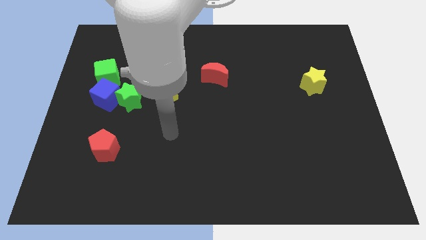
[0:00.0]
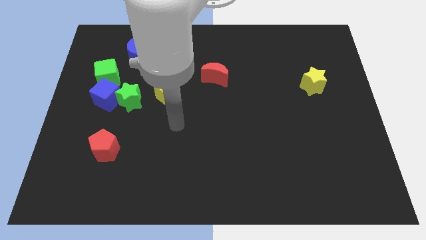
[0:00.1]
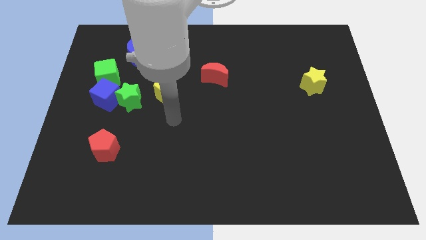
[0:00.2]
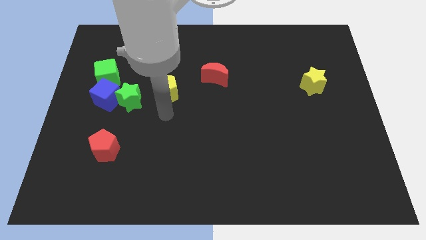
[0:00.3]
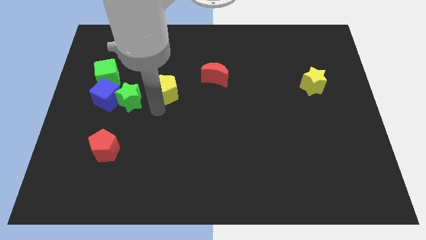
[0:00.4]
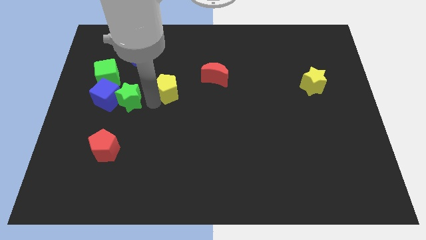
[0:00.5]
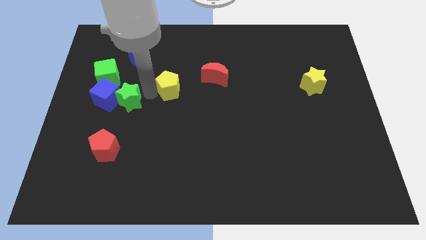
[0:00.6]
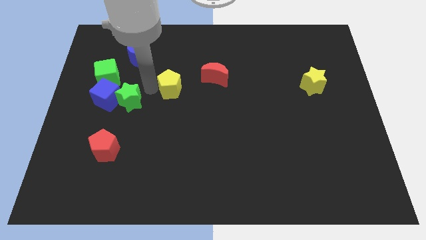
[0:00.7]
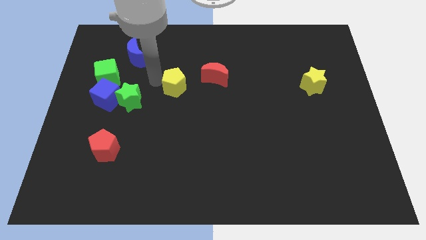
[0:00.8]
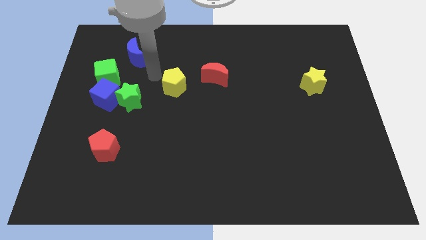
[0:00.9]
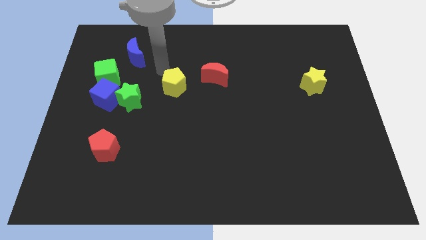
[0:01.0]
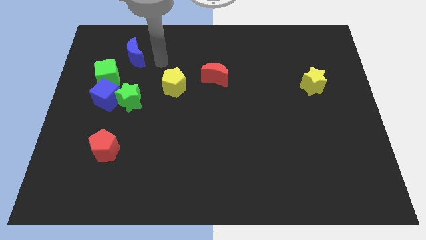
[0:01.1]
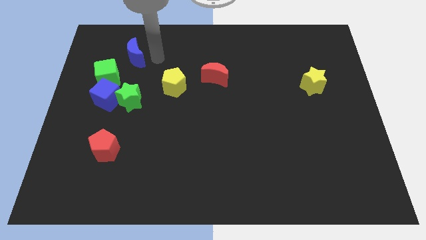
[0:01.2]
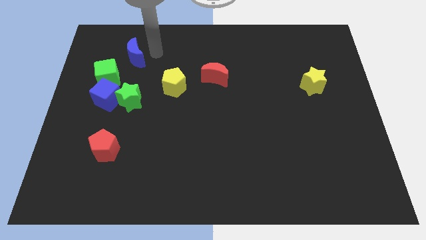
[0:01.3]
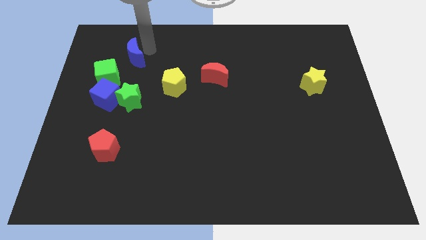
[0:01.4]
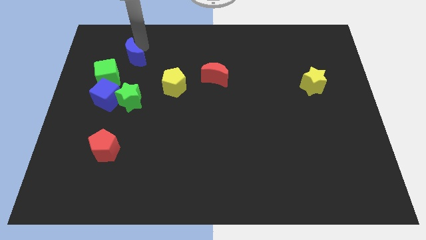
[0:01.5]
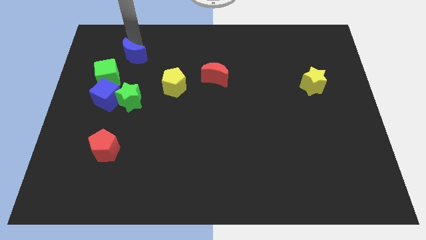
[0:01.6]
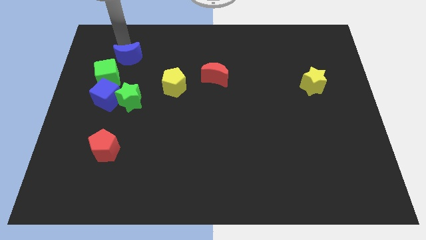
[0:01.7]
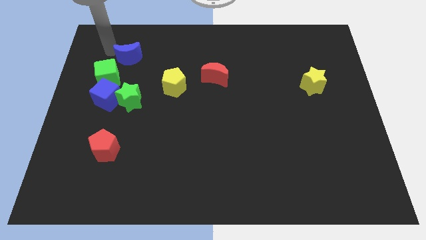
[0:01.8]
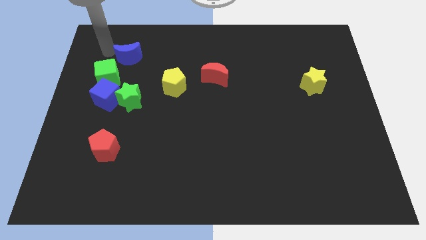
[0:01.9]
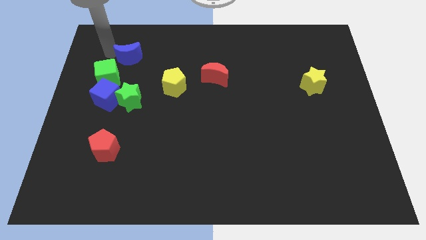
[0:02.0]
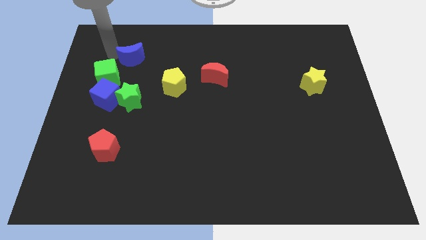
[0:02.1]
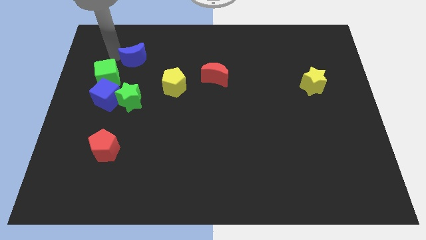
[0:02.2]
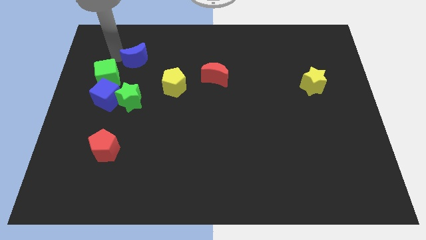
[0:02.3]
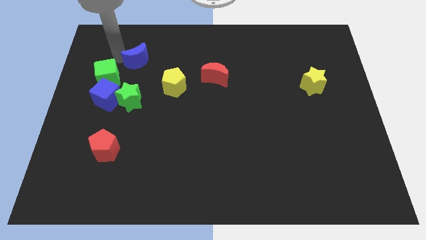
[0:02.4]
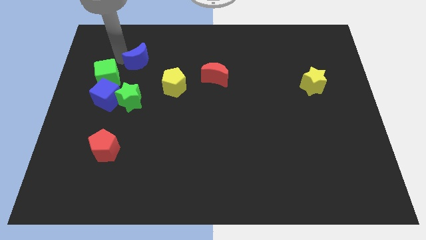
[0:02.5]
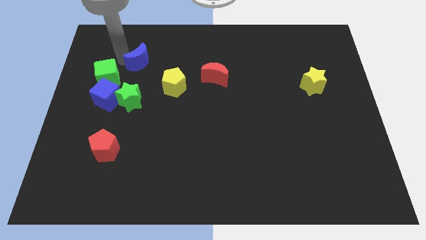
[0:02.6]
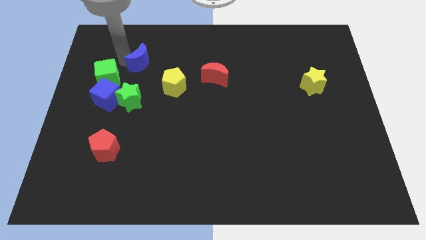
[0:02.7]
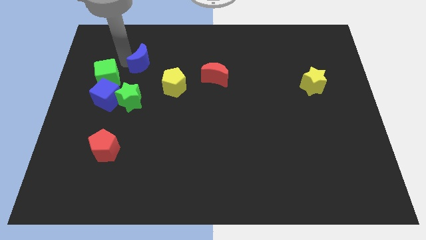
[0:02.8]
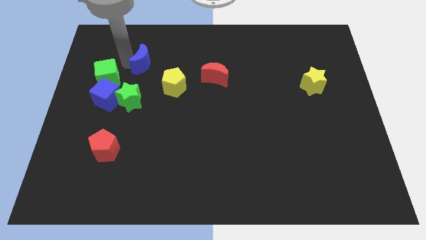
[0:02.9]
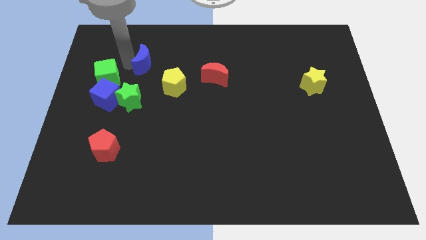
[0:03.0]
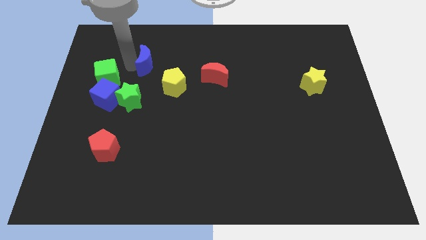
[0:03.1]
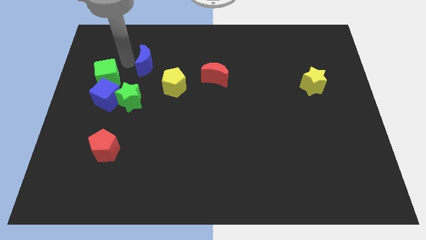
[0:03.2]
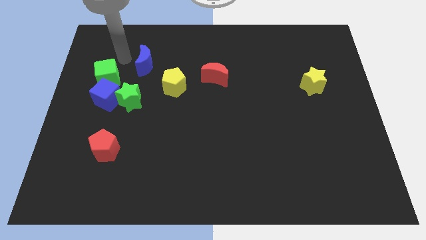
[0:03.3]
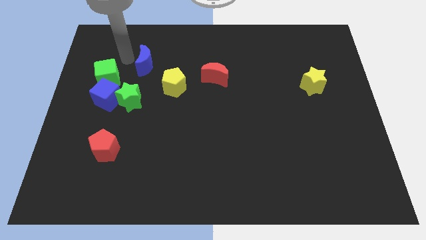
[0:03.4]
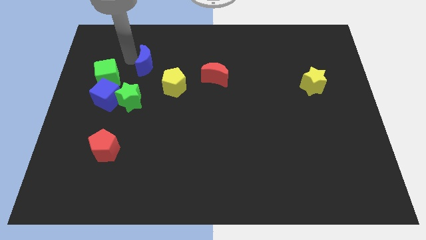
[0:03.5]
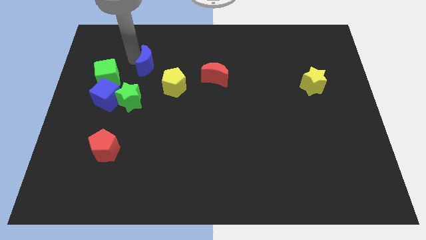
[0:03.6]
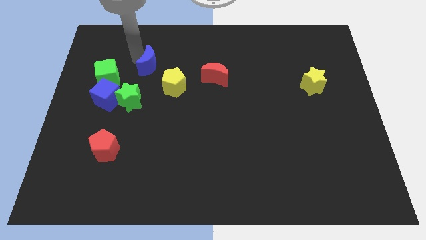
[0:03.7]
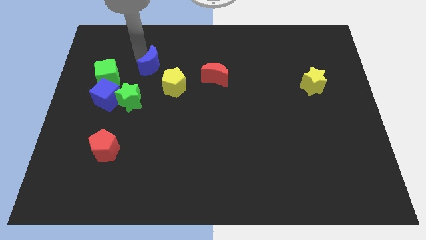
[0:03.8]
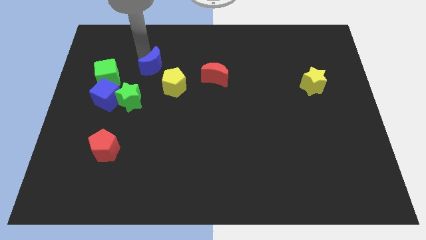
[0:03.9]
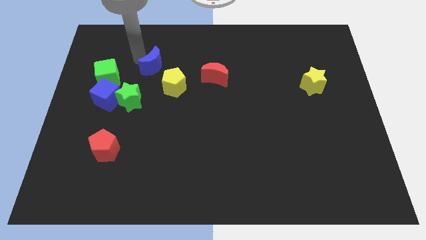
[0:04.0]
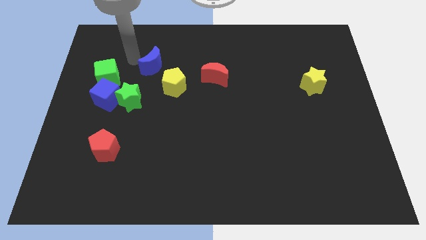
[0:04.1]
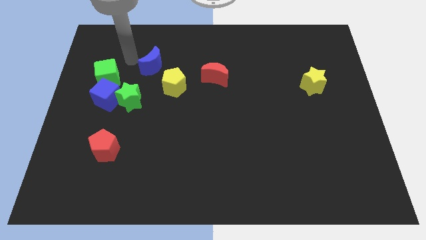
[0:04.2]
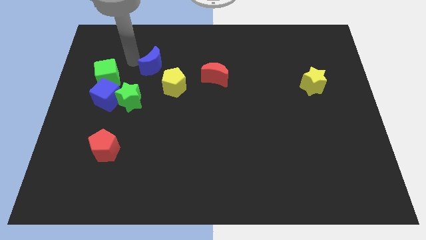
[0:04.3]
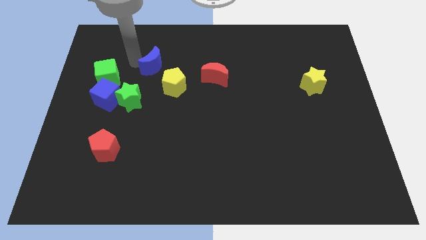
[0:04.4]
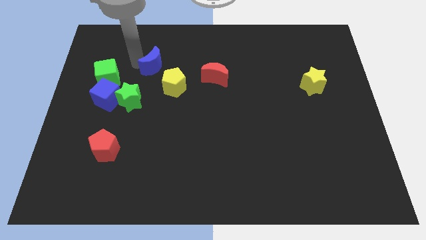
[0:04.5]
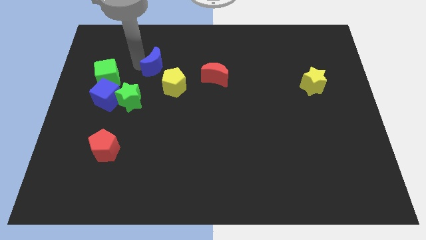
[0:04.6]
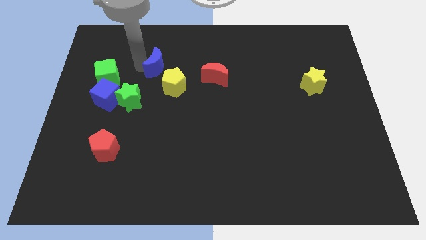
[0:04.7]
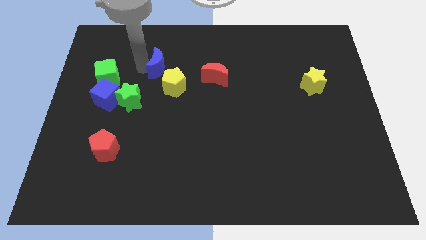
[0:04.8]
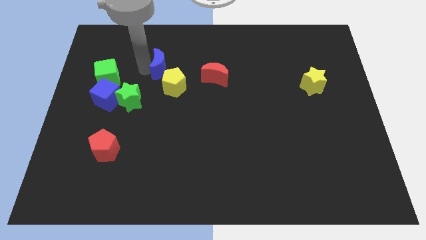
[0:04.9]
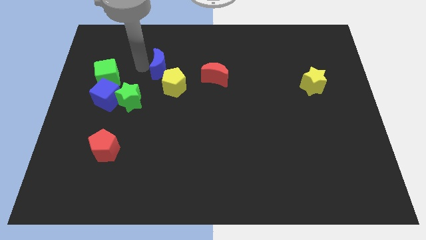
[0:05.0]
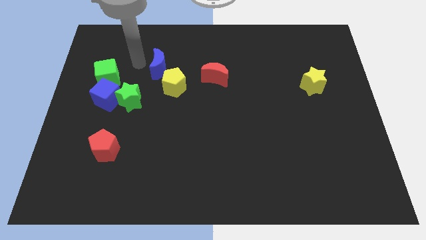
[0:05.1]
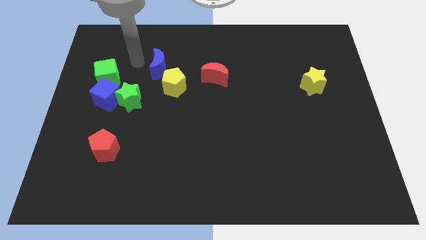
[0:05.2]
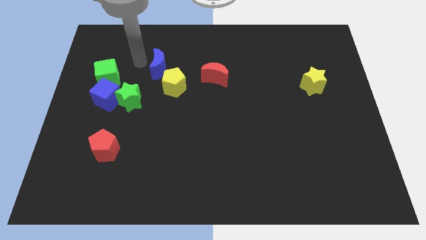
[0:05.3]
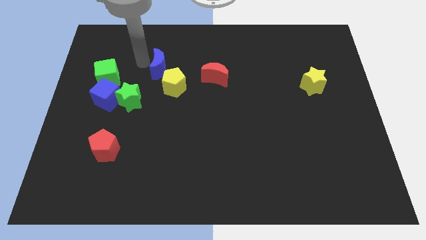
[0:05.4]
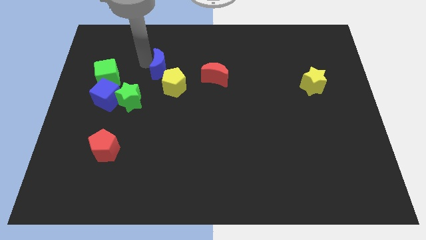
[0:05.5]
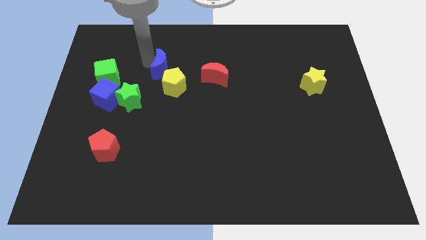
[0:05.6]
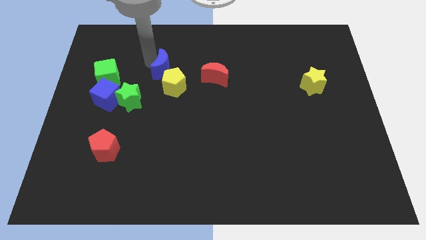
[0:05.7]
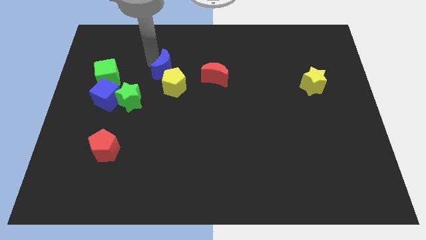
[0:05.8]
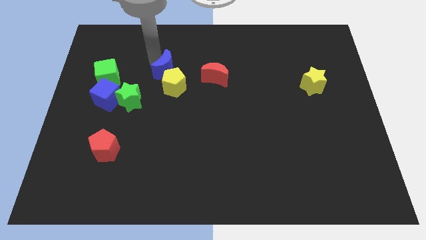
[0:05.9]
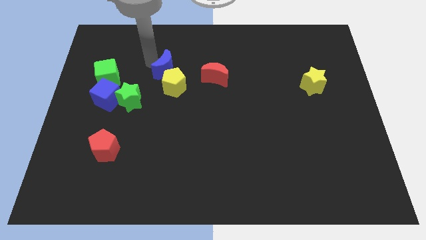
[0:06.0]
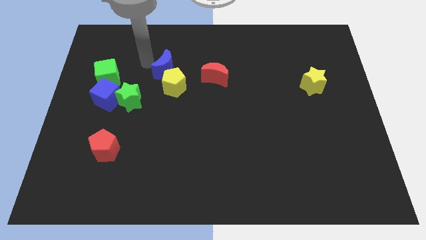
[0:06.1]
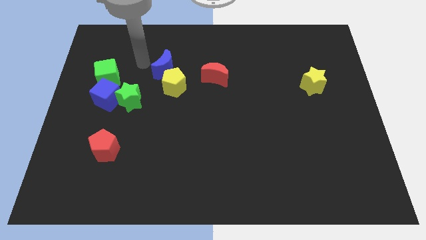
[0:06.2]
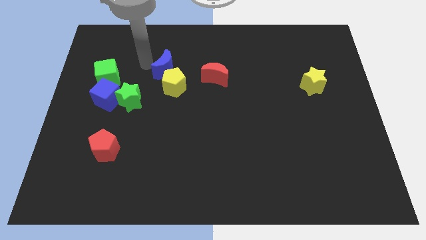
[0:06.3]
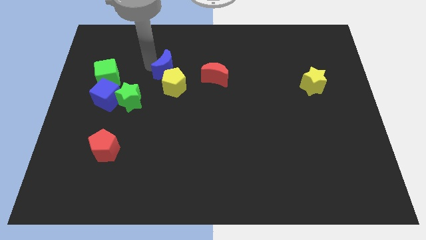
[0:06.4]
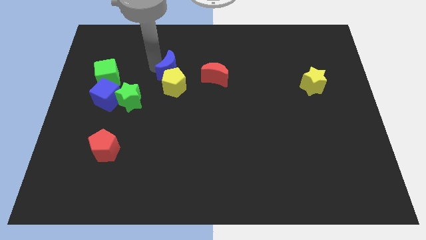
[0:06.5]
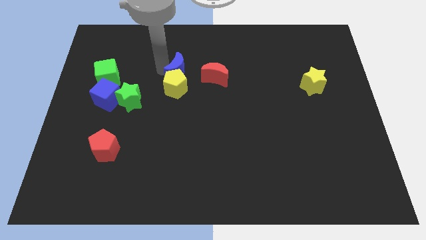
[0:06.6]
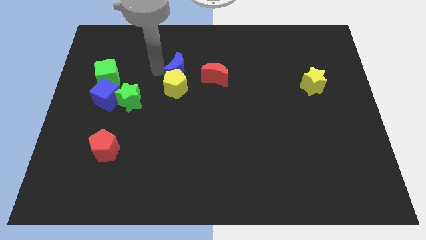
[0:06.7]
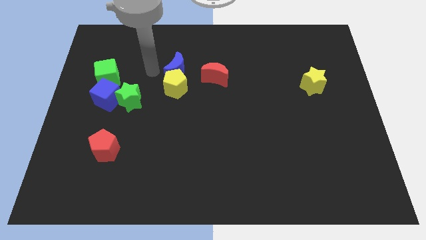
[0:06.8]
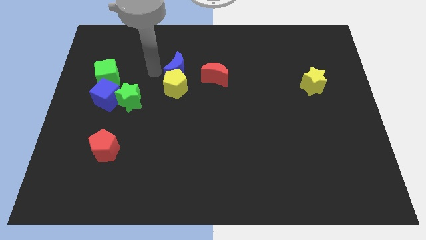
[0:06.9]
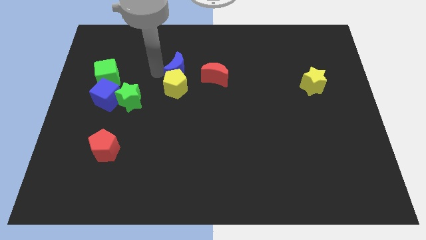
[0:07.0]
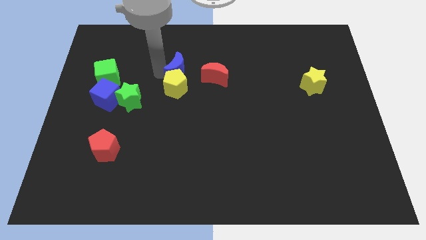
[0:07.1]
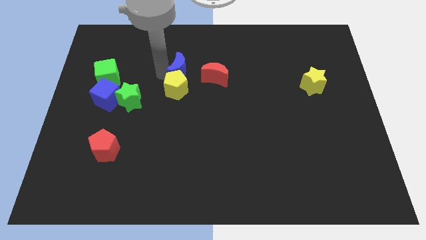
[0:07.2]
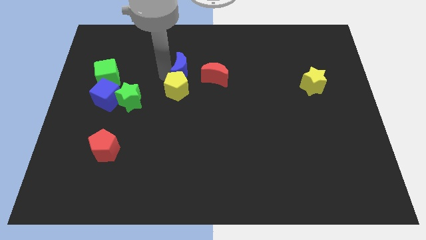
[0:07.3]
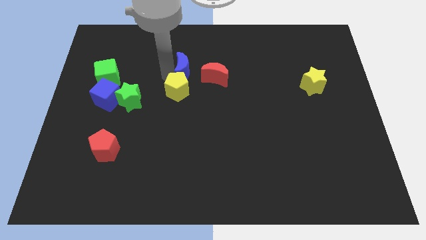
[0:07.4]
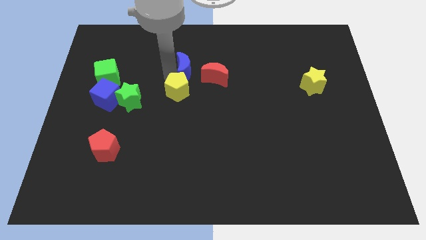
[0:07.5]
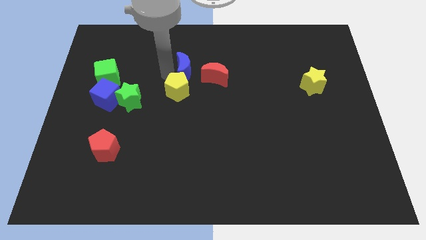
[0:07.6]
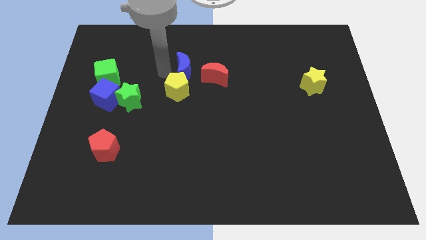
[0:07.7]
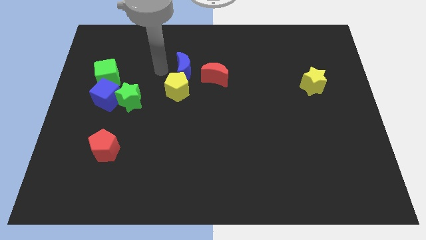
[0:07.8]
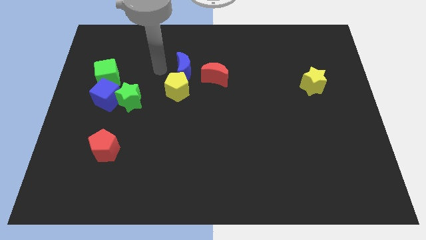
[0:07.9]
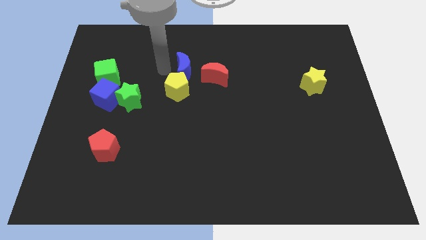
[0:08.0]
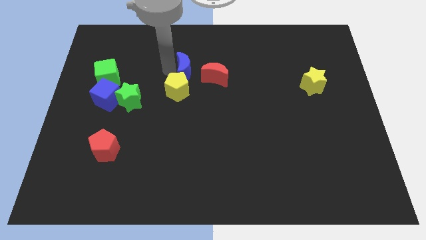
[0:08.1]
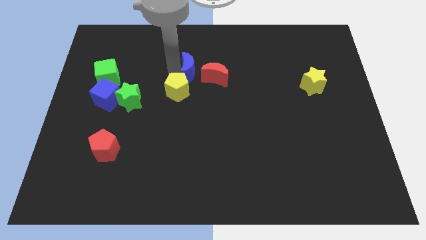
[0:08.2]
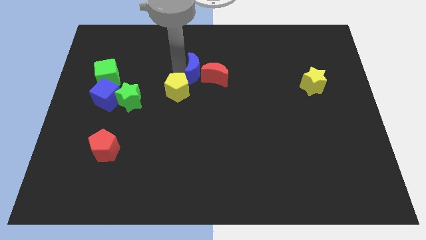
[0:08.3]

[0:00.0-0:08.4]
push the blue moon towards the red moon
